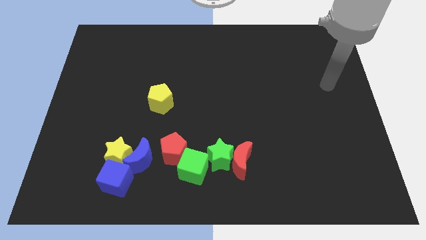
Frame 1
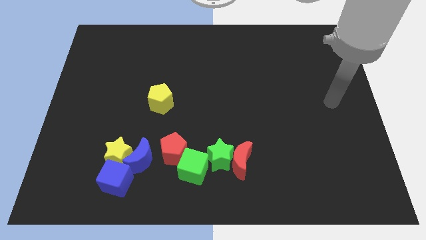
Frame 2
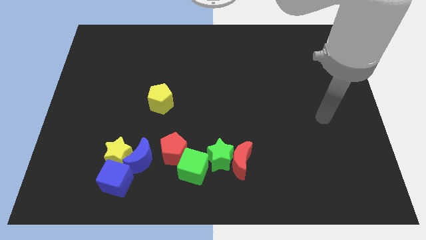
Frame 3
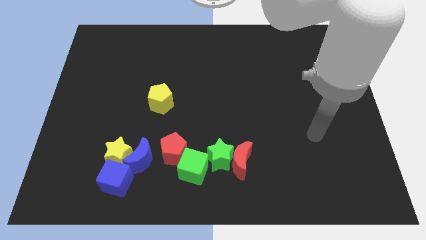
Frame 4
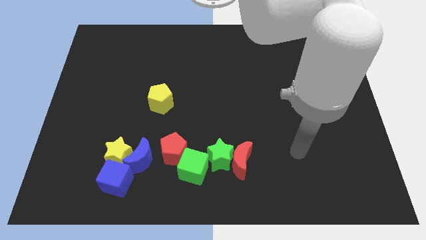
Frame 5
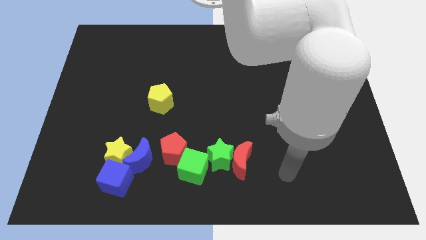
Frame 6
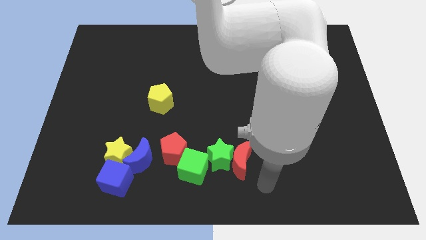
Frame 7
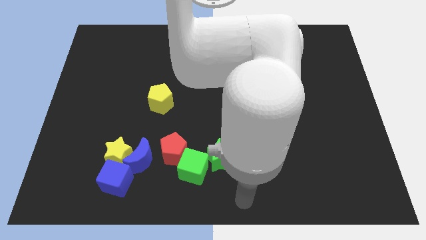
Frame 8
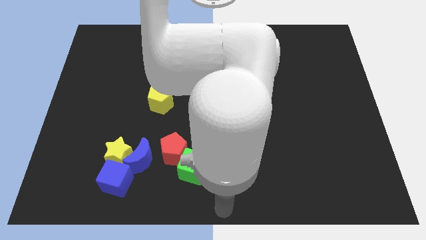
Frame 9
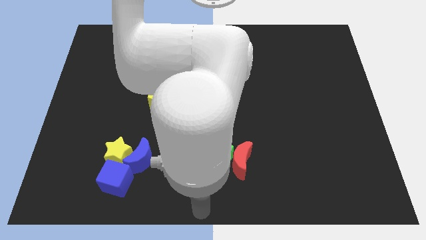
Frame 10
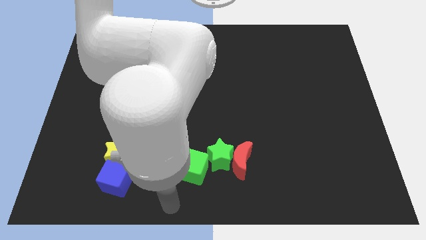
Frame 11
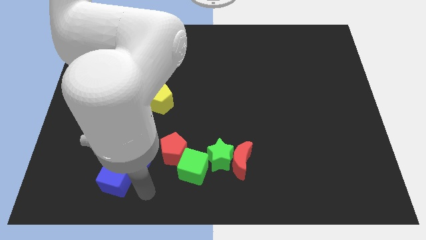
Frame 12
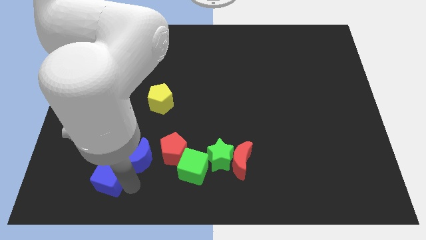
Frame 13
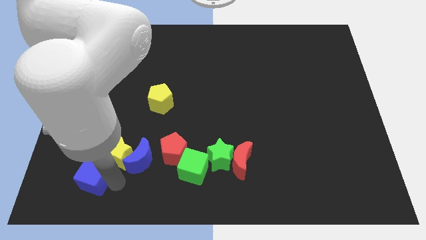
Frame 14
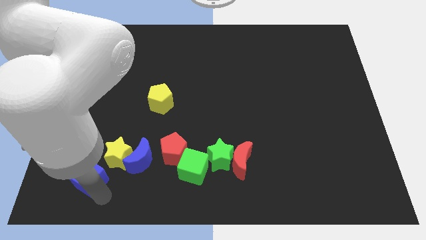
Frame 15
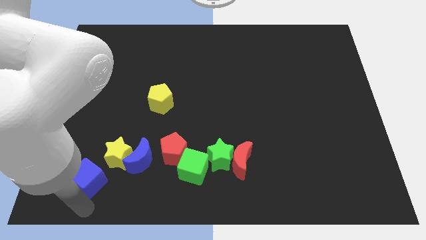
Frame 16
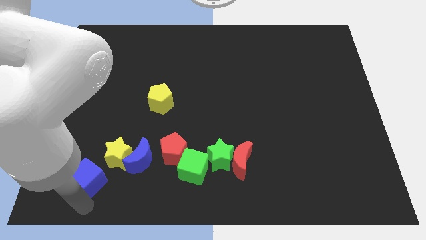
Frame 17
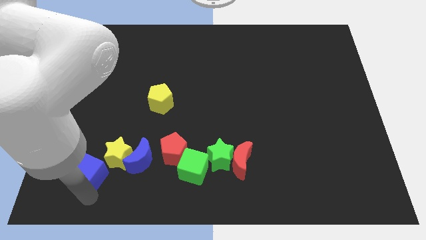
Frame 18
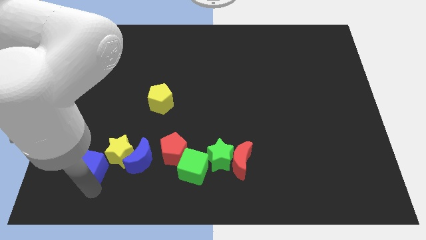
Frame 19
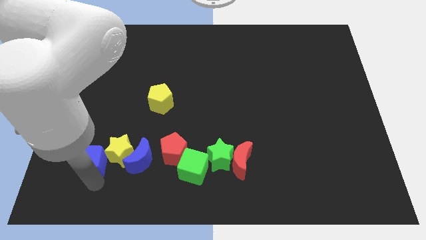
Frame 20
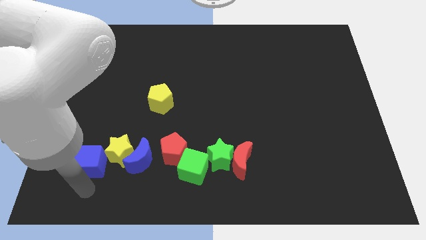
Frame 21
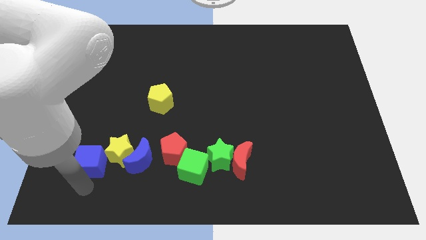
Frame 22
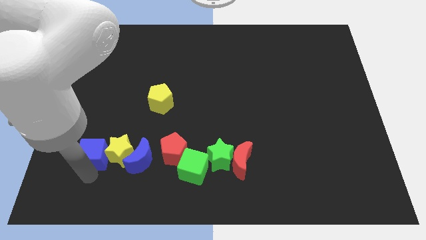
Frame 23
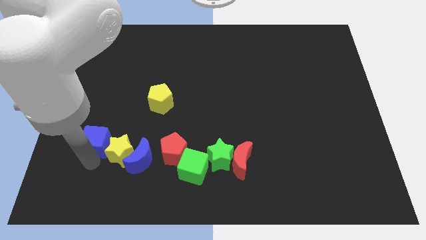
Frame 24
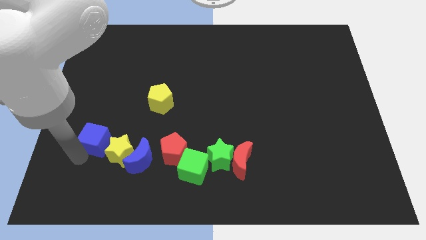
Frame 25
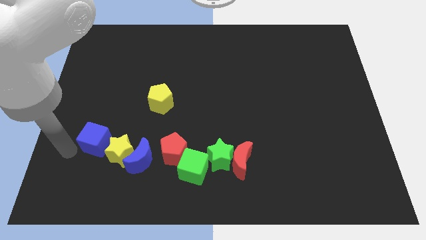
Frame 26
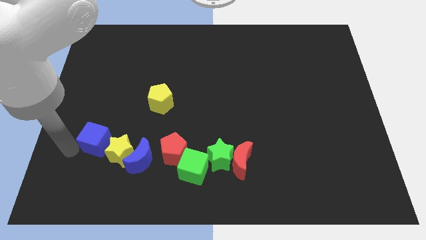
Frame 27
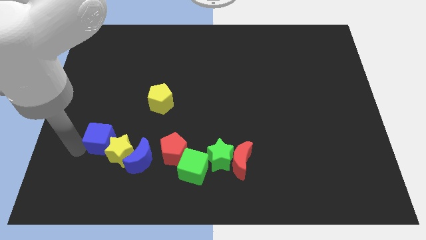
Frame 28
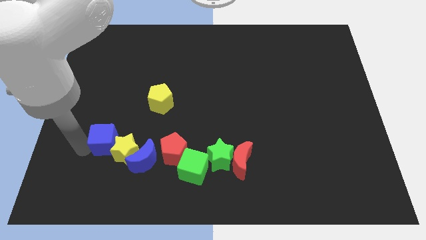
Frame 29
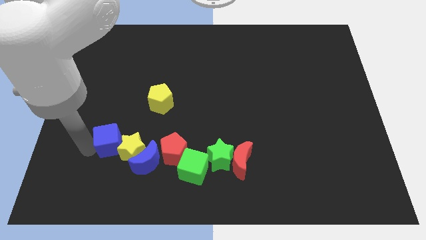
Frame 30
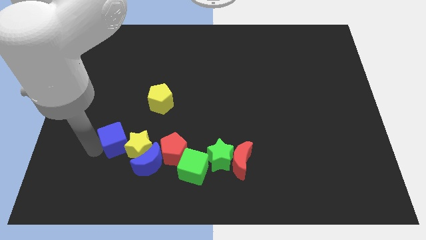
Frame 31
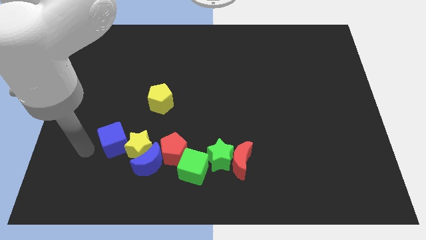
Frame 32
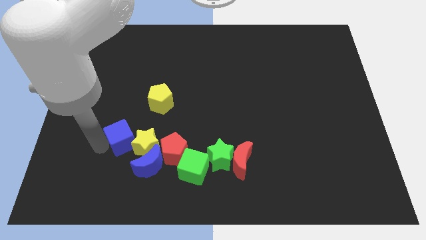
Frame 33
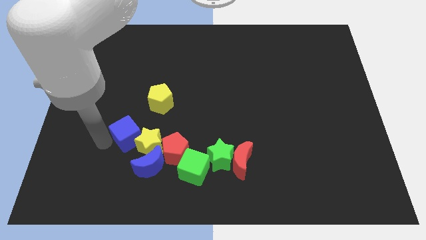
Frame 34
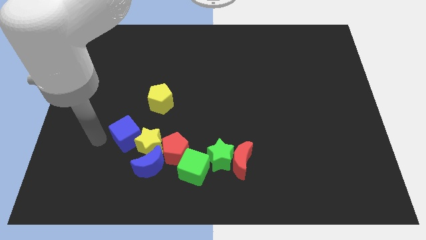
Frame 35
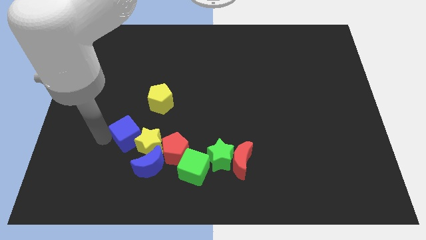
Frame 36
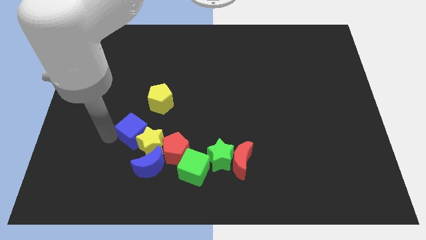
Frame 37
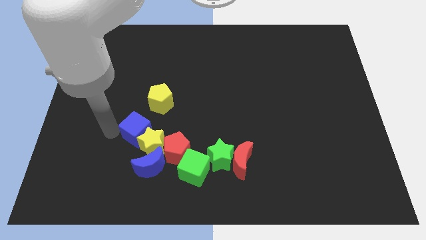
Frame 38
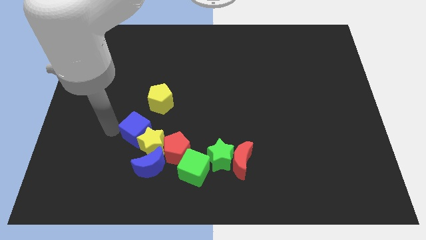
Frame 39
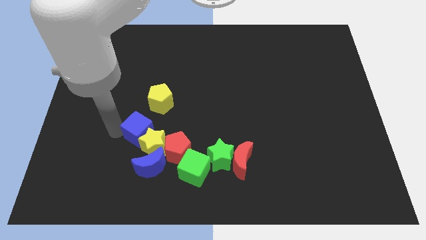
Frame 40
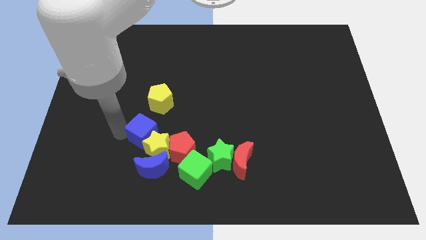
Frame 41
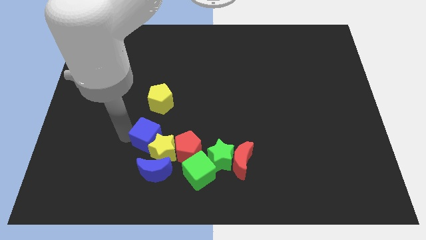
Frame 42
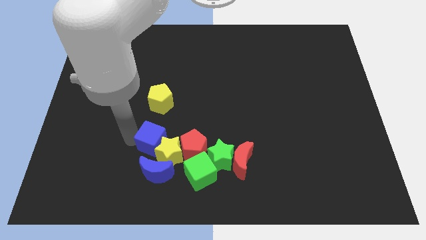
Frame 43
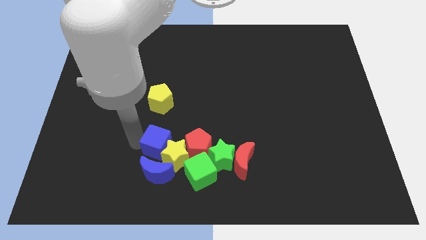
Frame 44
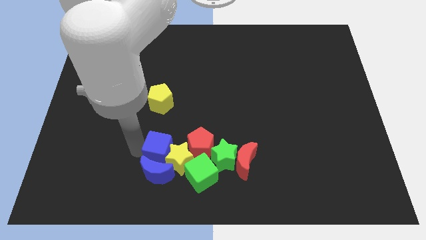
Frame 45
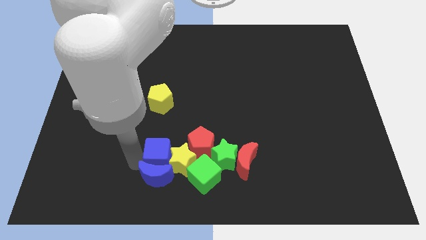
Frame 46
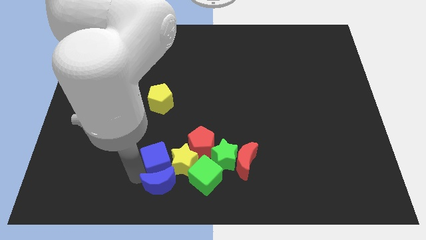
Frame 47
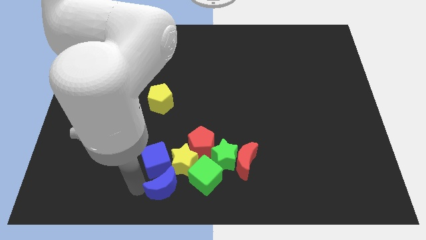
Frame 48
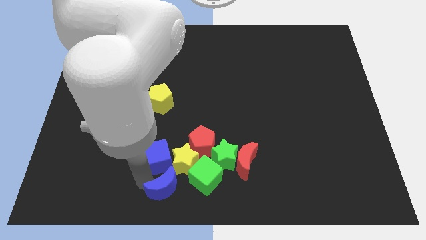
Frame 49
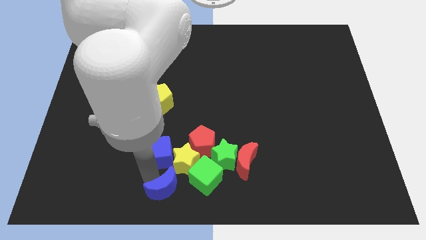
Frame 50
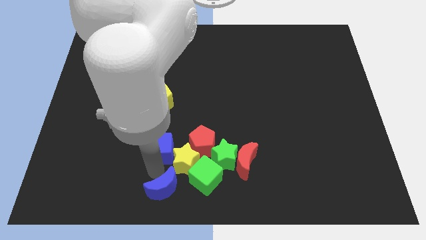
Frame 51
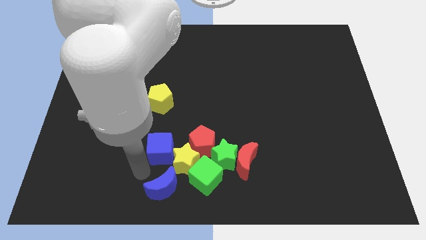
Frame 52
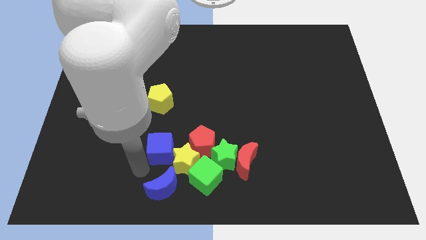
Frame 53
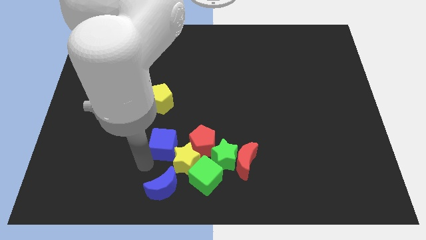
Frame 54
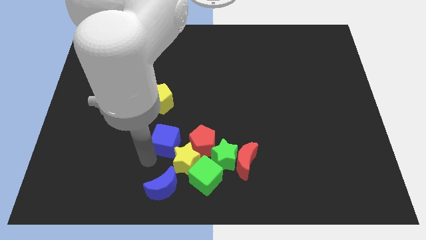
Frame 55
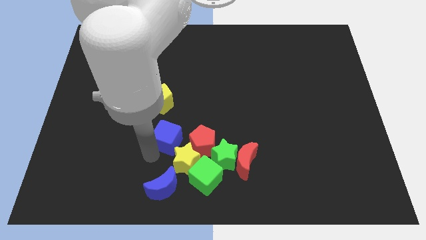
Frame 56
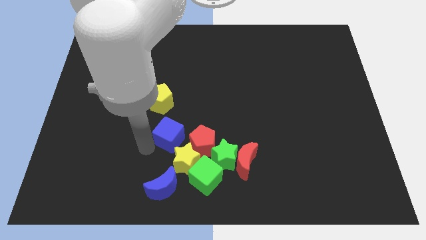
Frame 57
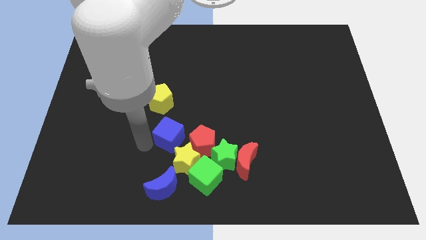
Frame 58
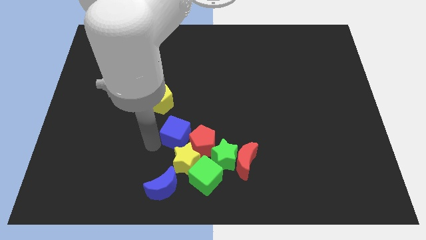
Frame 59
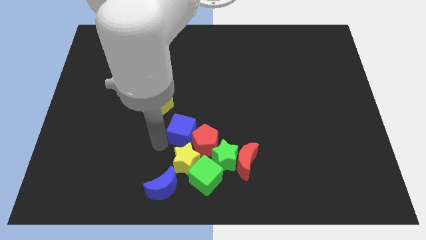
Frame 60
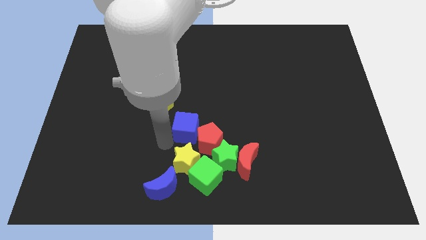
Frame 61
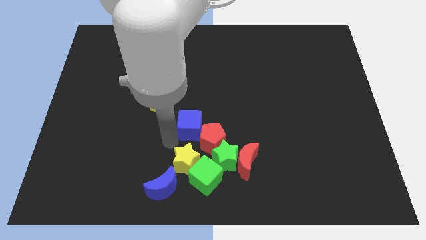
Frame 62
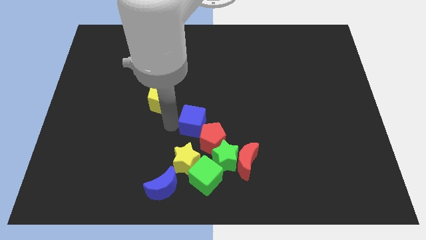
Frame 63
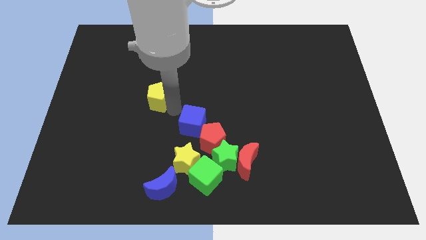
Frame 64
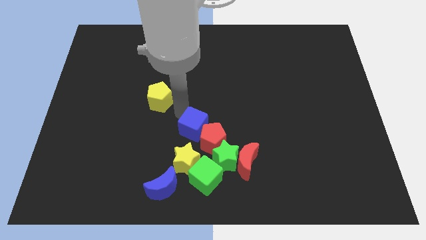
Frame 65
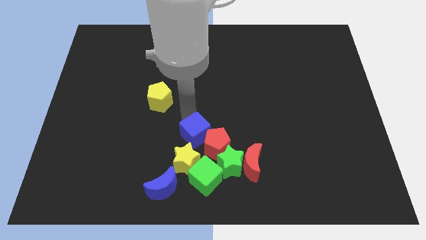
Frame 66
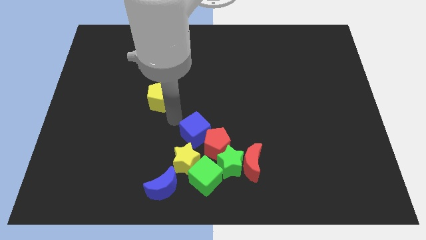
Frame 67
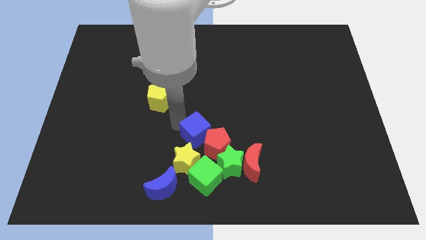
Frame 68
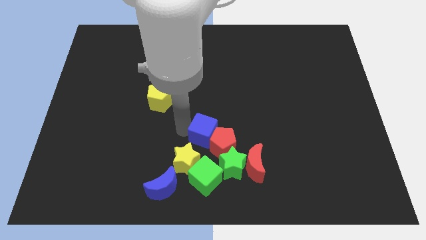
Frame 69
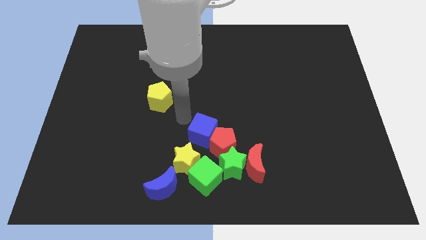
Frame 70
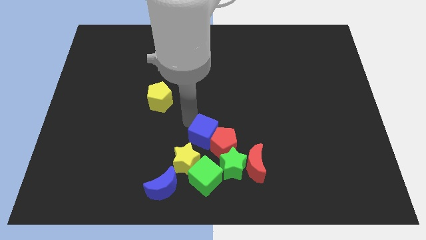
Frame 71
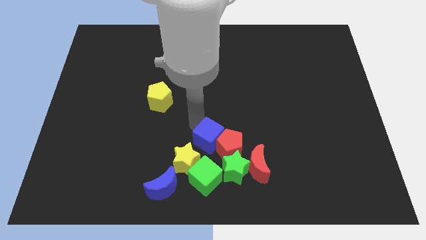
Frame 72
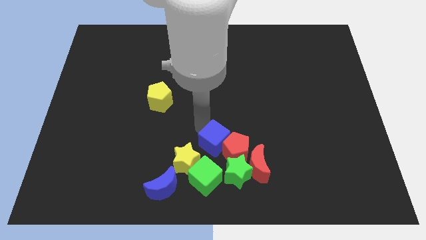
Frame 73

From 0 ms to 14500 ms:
push the blue cube diagonally up and to the right of the green cube
